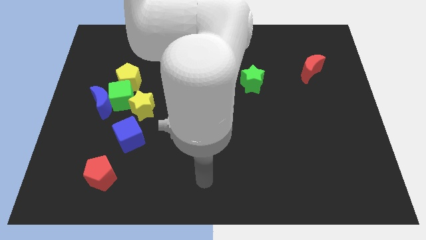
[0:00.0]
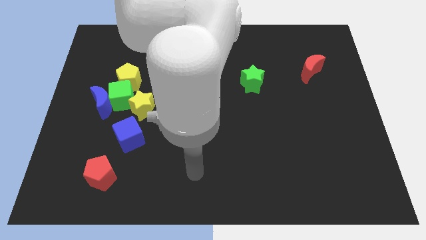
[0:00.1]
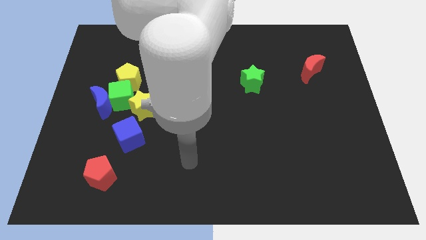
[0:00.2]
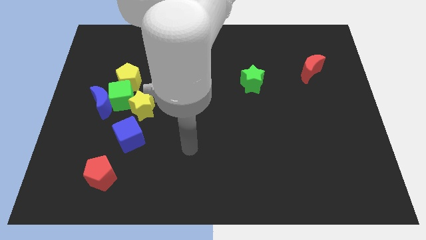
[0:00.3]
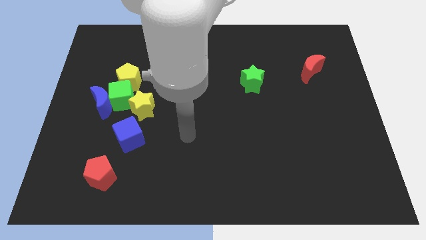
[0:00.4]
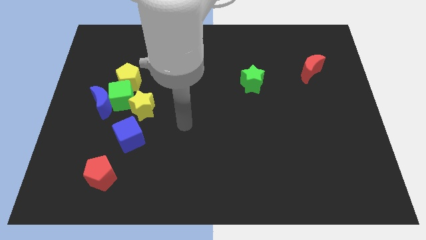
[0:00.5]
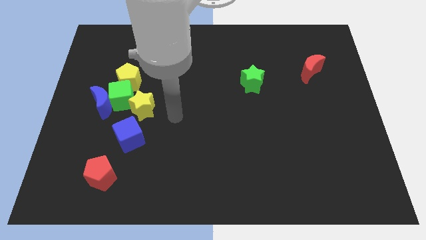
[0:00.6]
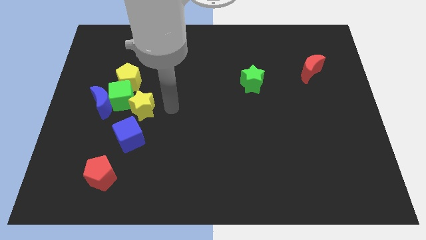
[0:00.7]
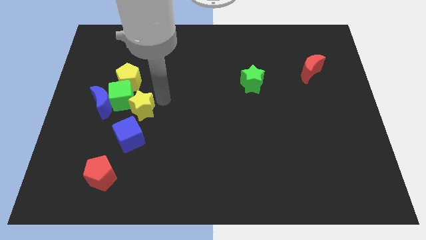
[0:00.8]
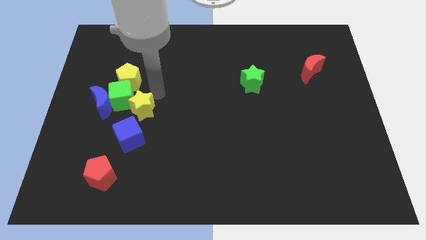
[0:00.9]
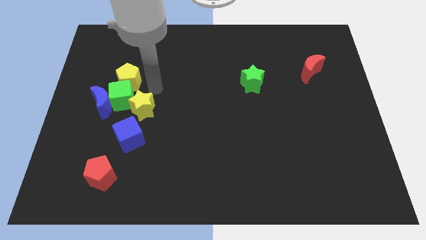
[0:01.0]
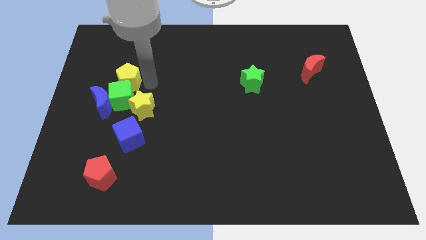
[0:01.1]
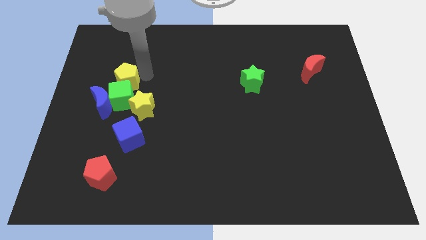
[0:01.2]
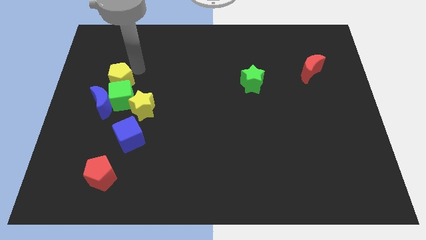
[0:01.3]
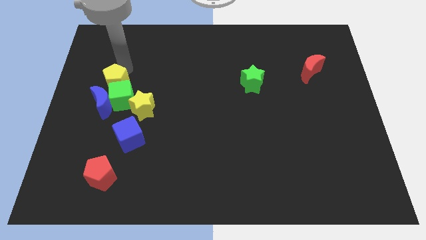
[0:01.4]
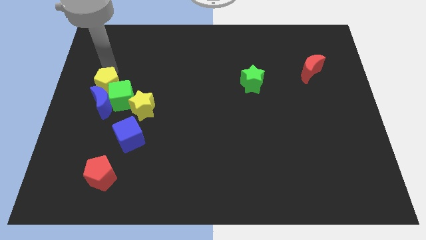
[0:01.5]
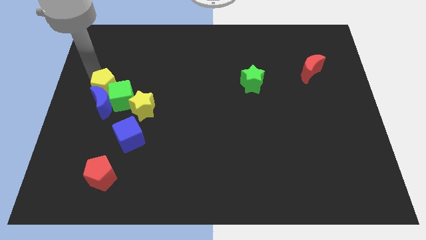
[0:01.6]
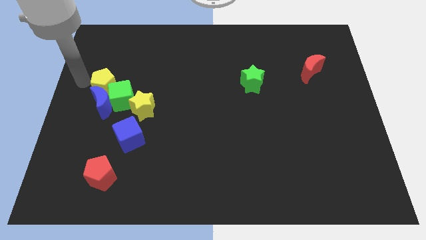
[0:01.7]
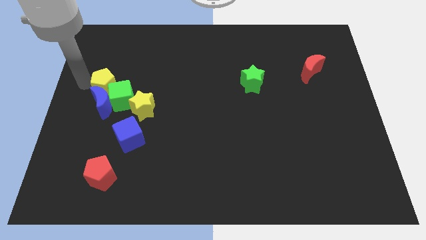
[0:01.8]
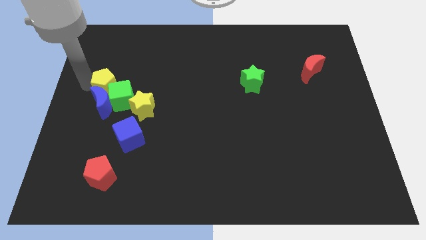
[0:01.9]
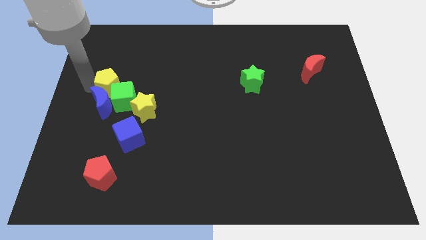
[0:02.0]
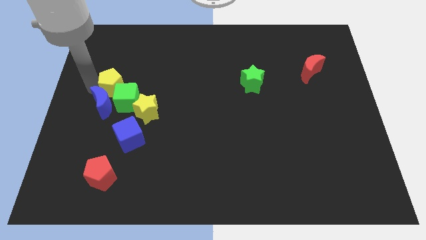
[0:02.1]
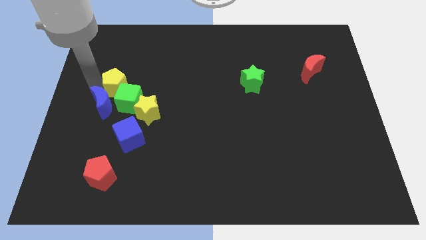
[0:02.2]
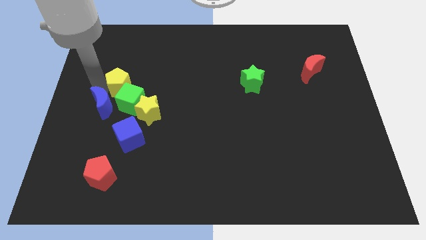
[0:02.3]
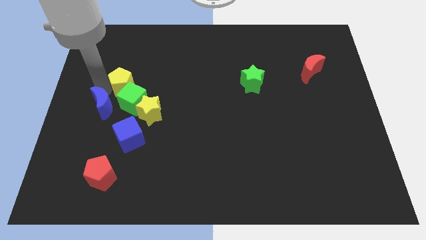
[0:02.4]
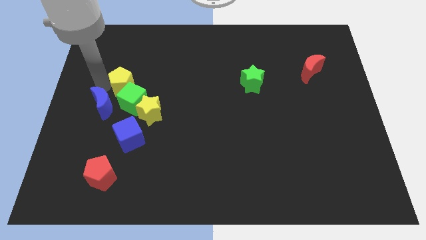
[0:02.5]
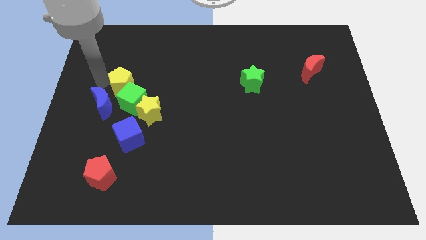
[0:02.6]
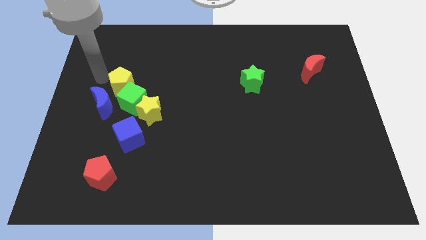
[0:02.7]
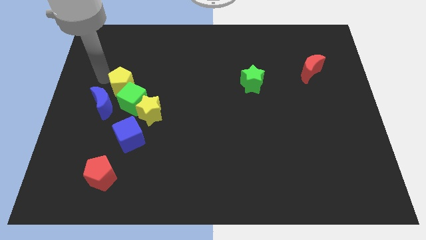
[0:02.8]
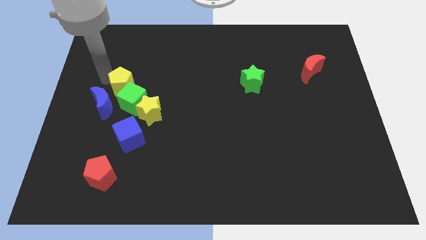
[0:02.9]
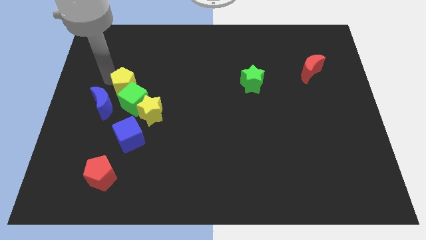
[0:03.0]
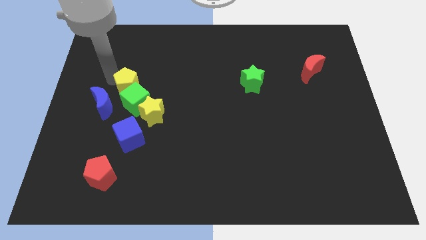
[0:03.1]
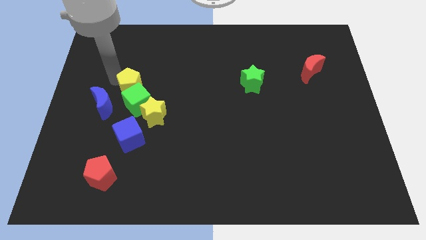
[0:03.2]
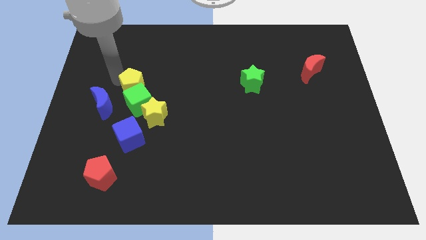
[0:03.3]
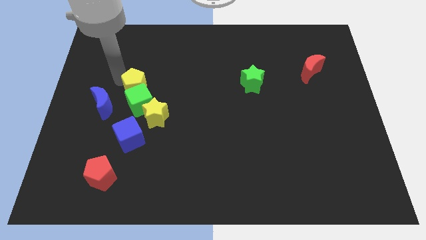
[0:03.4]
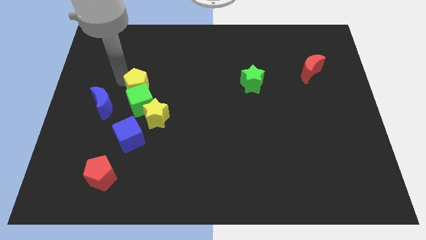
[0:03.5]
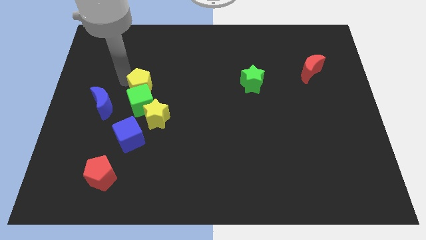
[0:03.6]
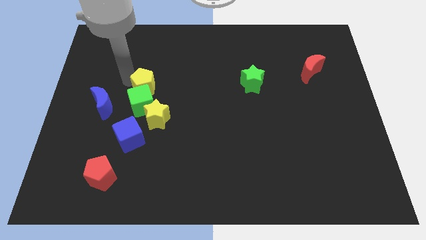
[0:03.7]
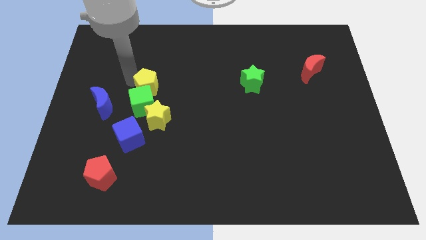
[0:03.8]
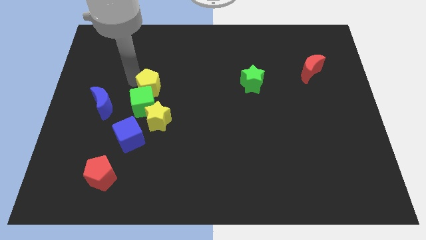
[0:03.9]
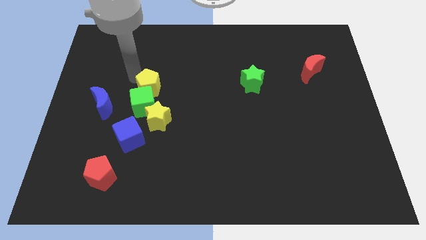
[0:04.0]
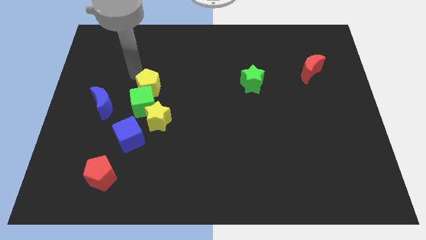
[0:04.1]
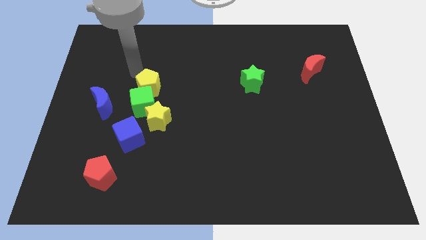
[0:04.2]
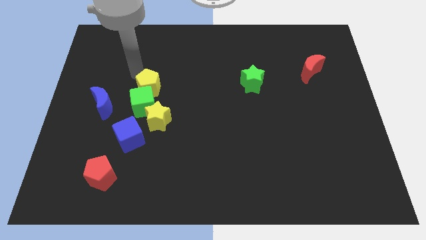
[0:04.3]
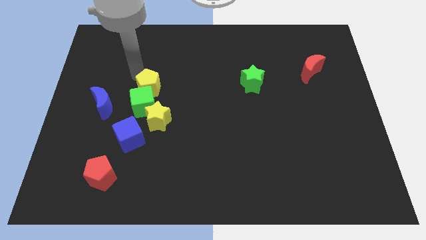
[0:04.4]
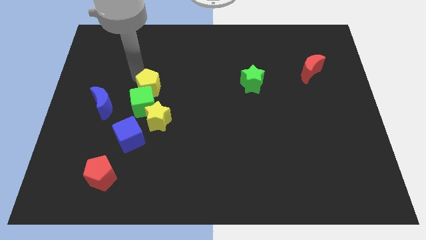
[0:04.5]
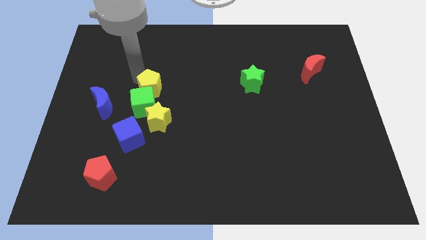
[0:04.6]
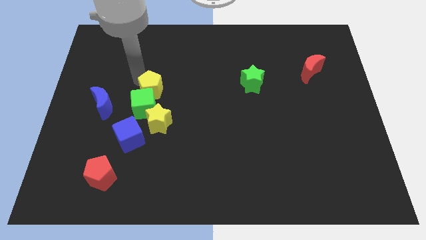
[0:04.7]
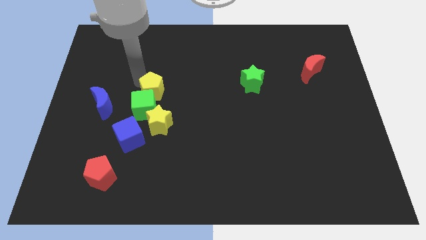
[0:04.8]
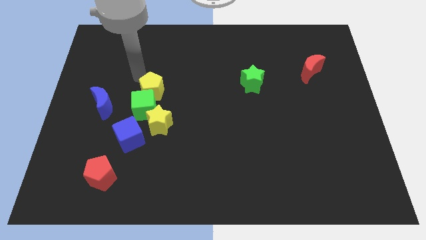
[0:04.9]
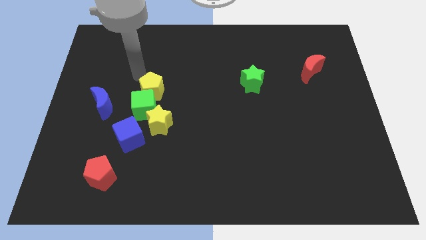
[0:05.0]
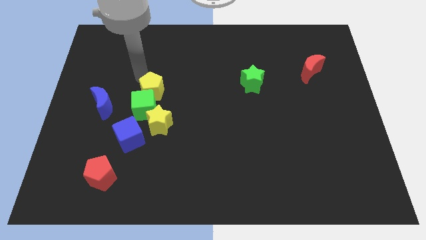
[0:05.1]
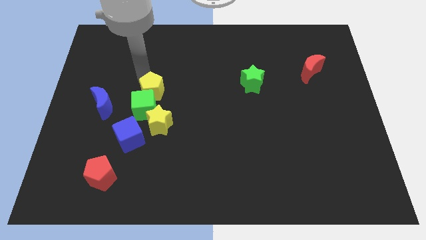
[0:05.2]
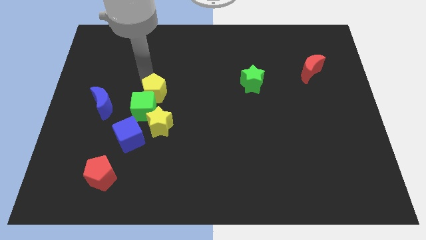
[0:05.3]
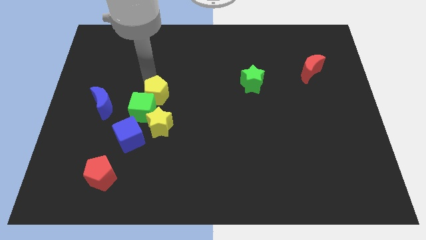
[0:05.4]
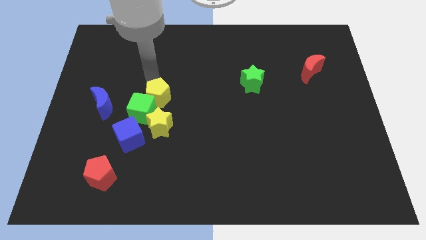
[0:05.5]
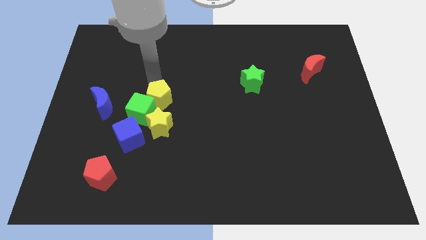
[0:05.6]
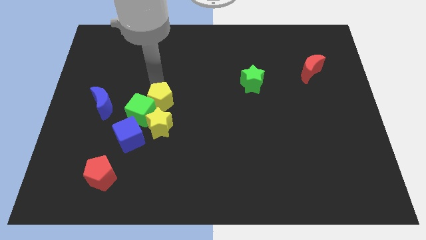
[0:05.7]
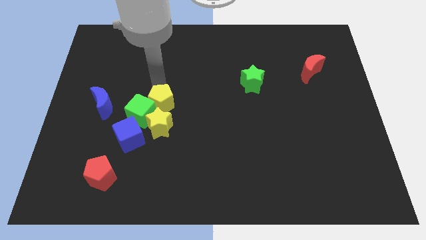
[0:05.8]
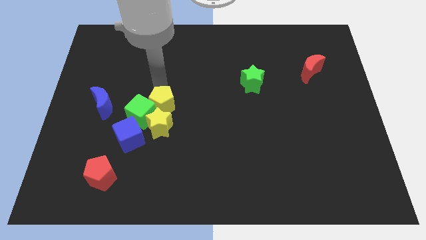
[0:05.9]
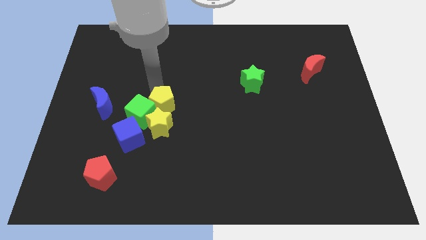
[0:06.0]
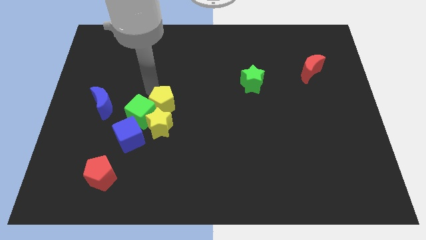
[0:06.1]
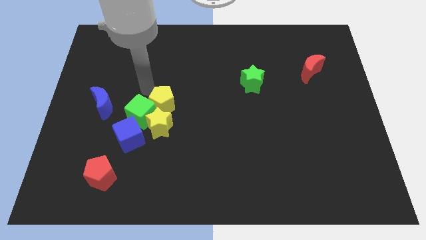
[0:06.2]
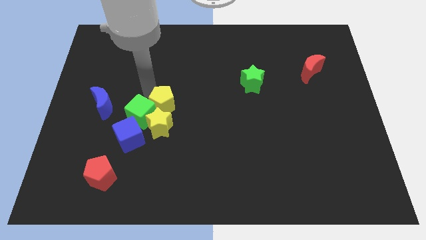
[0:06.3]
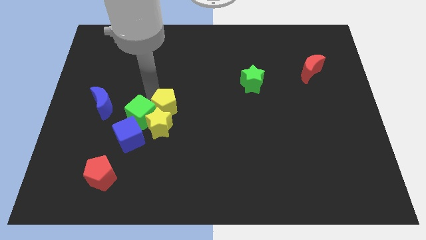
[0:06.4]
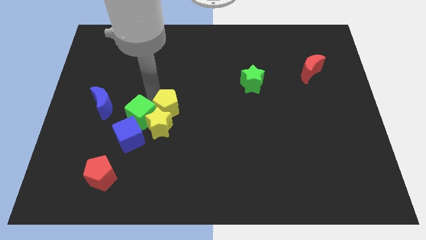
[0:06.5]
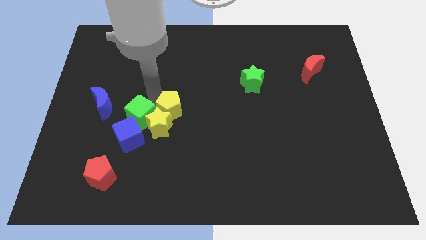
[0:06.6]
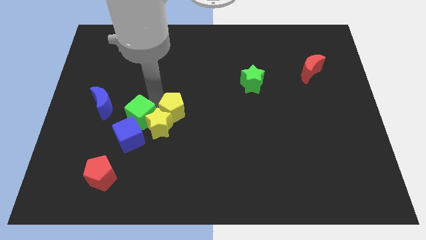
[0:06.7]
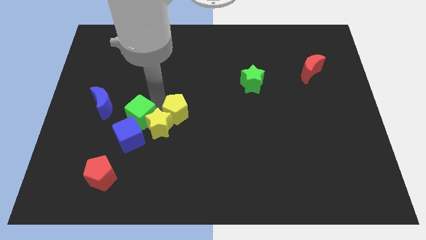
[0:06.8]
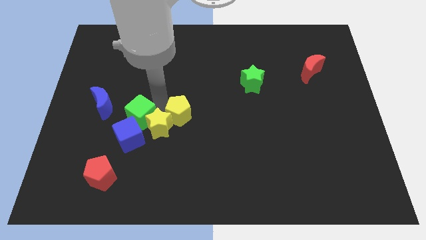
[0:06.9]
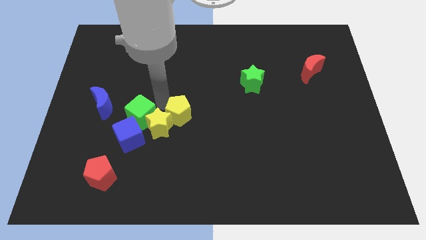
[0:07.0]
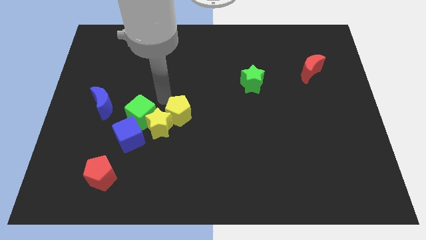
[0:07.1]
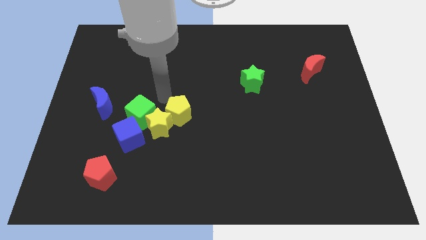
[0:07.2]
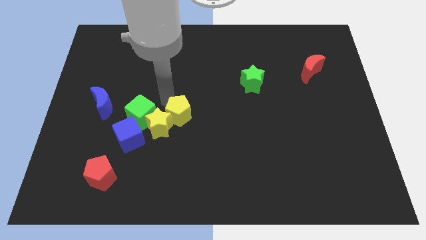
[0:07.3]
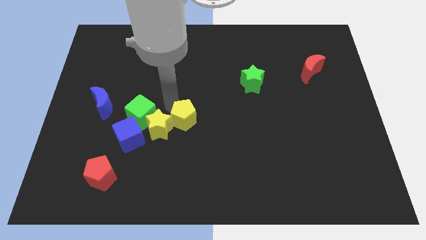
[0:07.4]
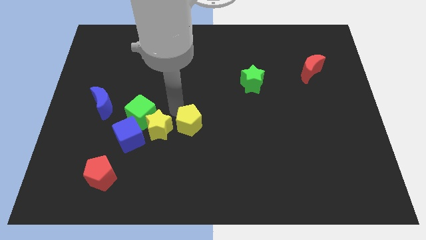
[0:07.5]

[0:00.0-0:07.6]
push the yellow pentagon downwards and then to the right

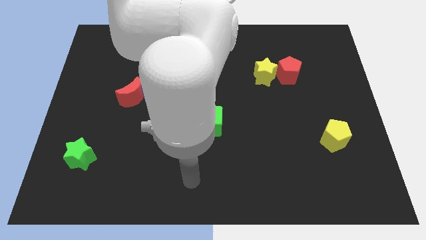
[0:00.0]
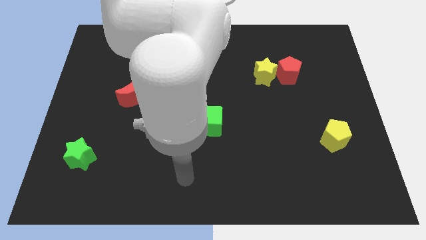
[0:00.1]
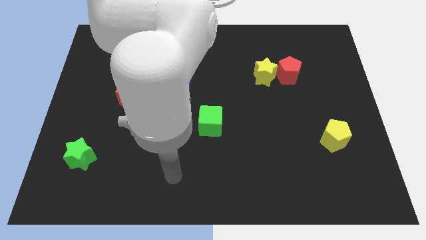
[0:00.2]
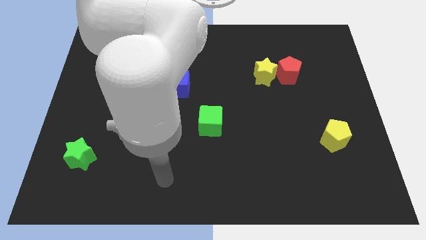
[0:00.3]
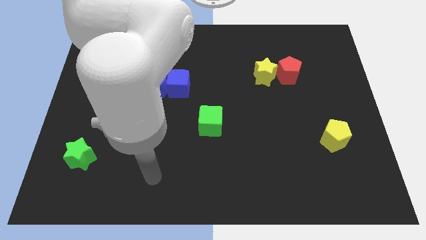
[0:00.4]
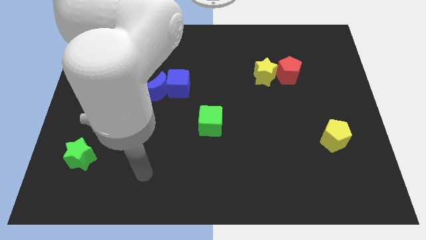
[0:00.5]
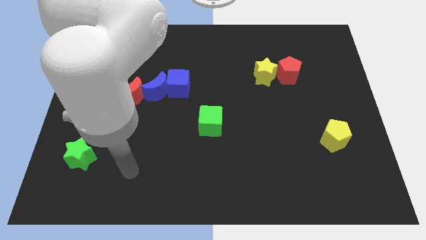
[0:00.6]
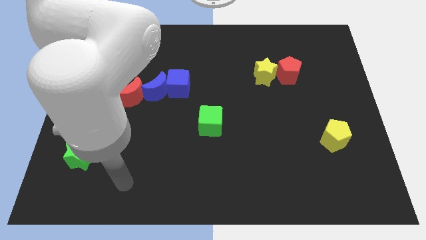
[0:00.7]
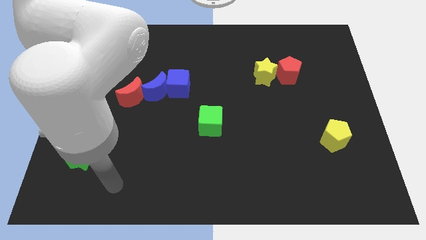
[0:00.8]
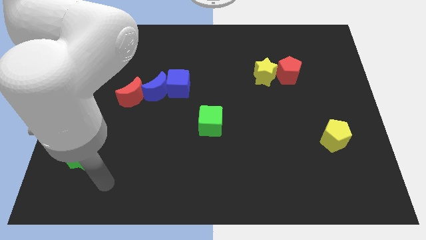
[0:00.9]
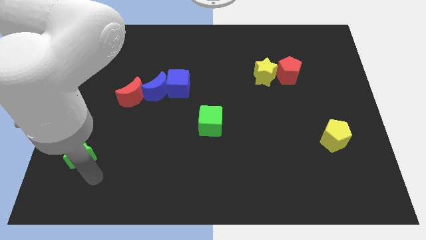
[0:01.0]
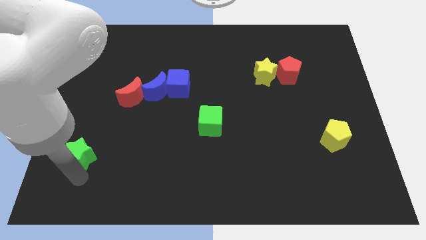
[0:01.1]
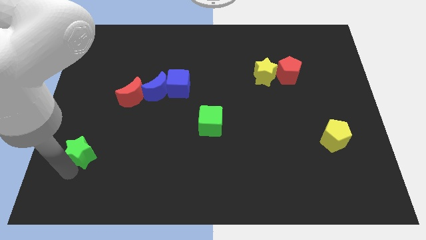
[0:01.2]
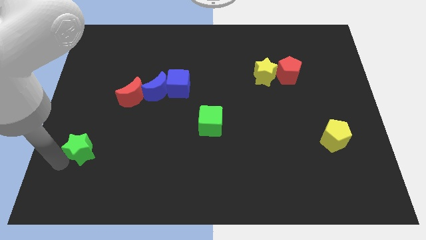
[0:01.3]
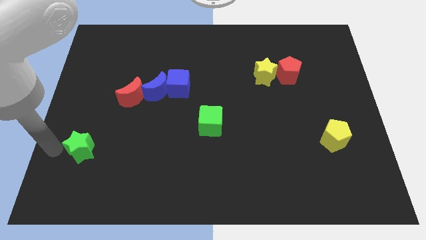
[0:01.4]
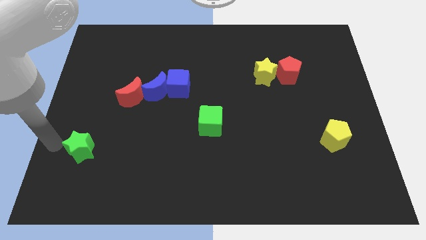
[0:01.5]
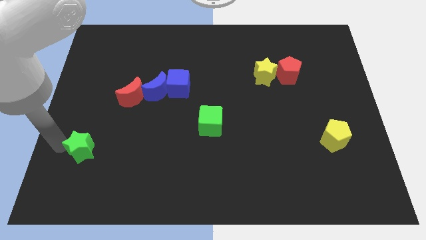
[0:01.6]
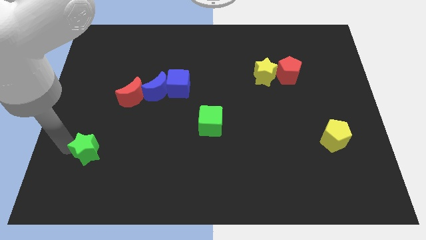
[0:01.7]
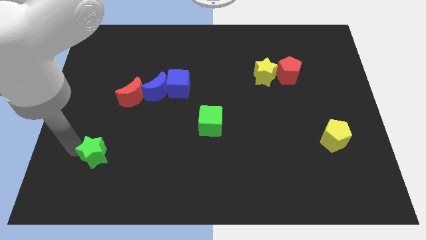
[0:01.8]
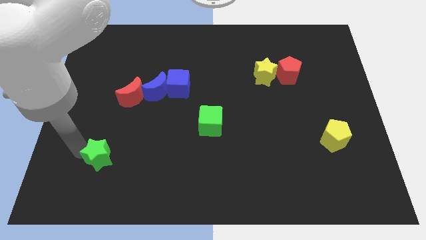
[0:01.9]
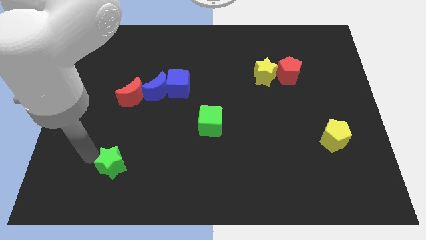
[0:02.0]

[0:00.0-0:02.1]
move the green star to the right slightly
